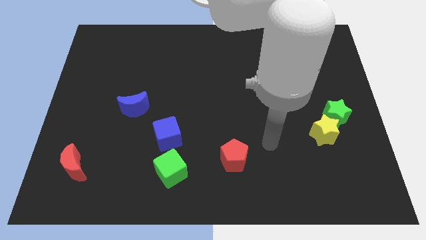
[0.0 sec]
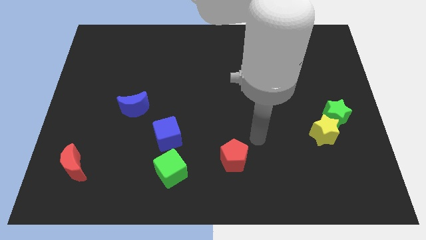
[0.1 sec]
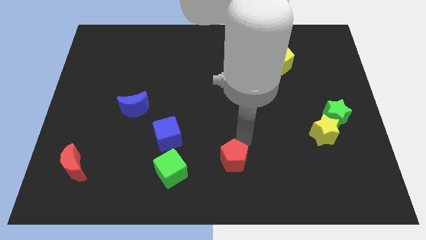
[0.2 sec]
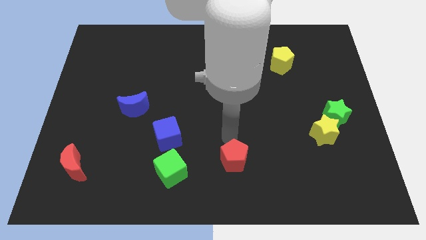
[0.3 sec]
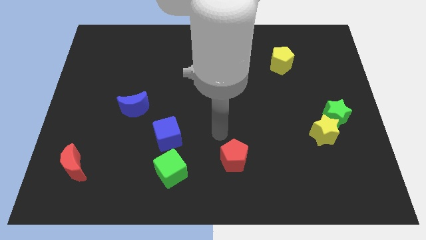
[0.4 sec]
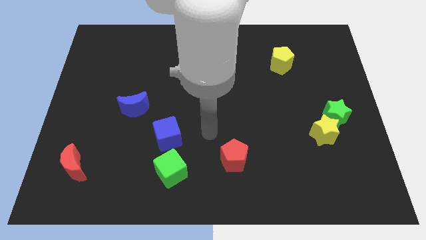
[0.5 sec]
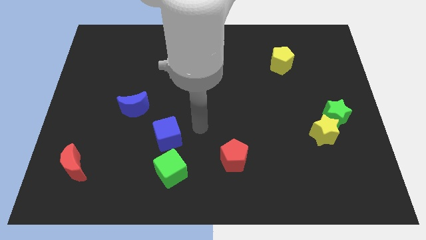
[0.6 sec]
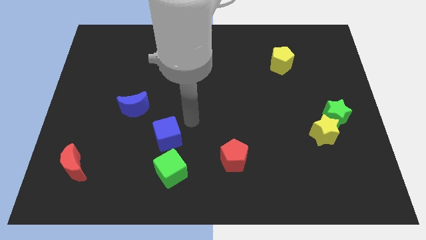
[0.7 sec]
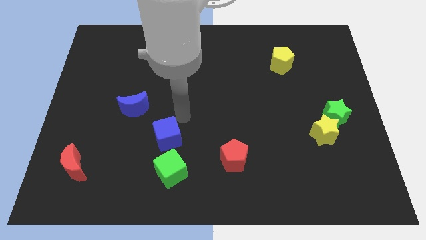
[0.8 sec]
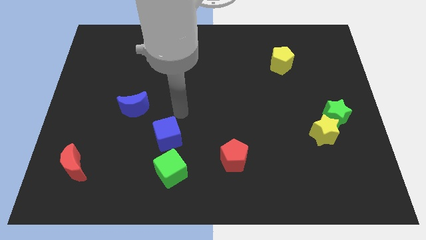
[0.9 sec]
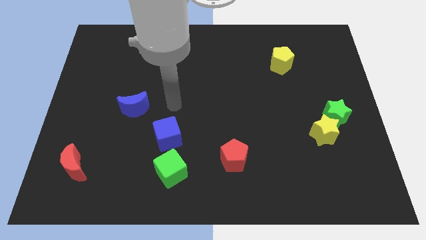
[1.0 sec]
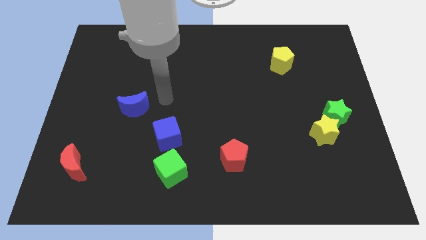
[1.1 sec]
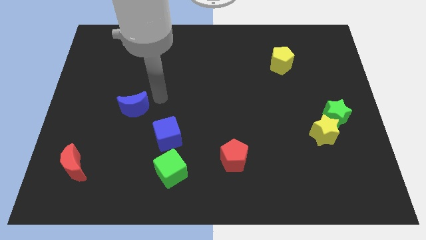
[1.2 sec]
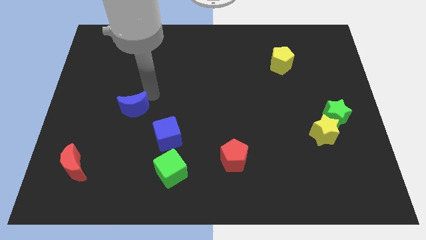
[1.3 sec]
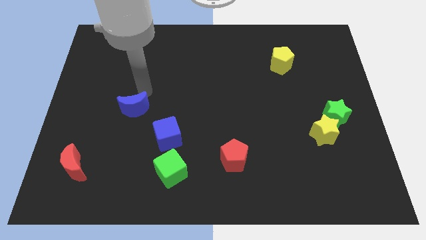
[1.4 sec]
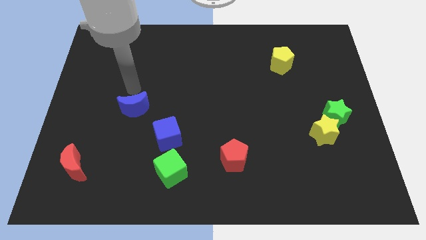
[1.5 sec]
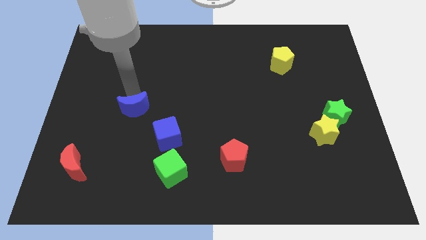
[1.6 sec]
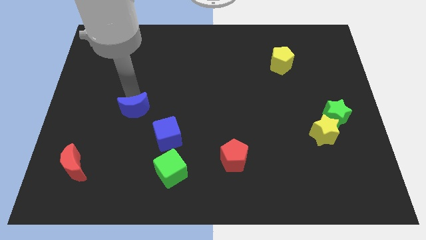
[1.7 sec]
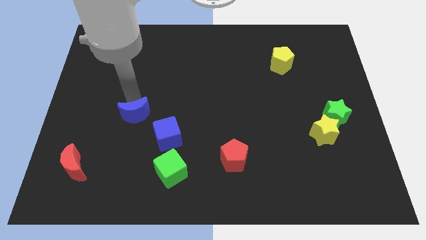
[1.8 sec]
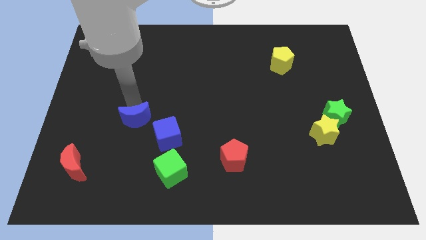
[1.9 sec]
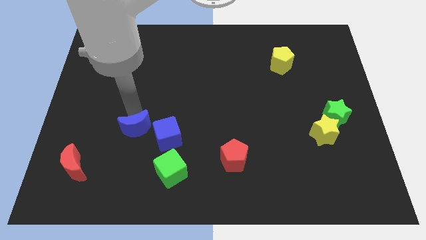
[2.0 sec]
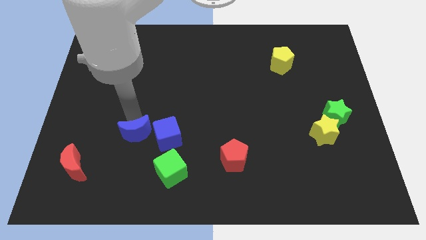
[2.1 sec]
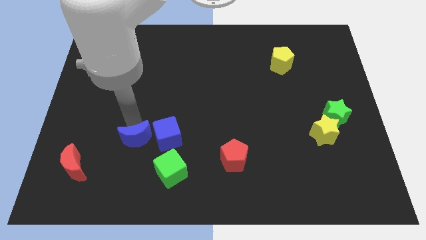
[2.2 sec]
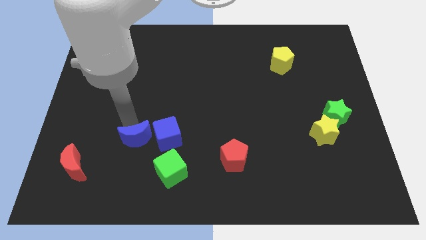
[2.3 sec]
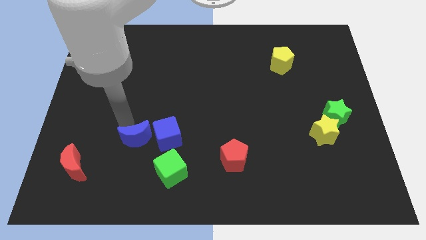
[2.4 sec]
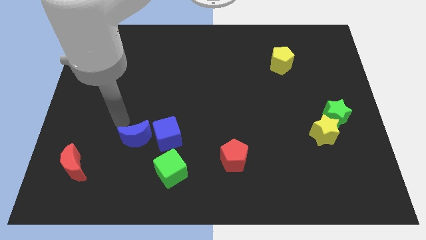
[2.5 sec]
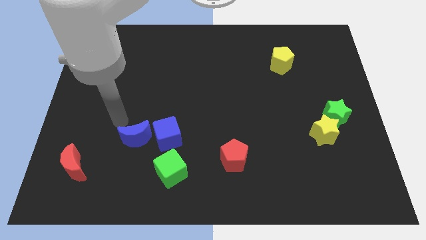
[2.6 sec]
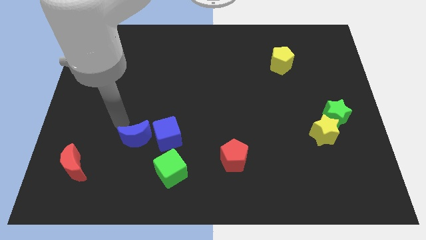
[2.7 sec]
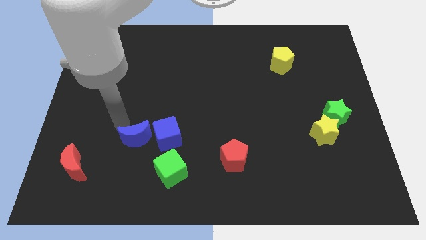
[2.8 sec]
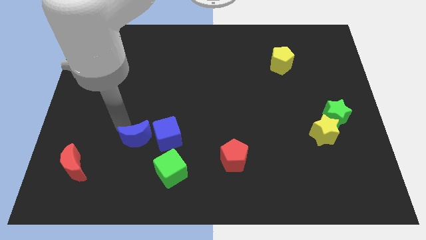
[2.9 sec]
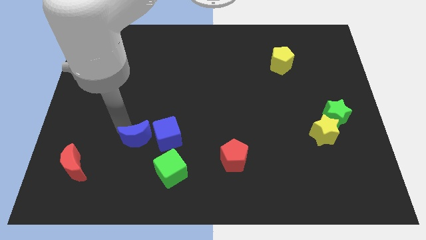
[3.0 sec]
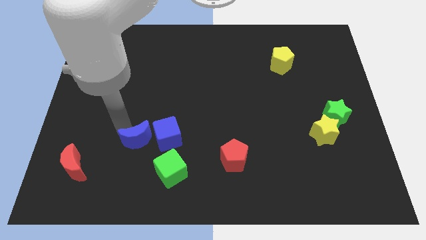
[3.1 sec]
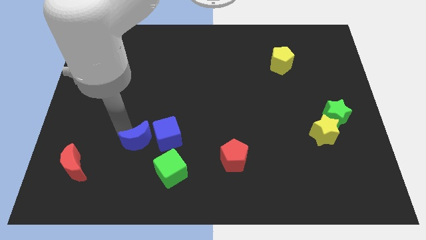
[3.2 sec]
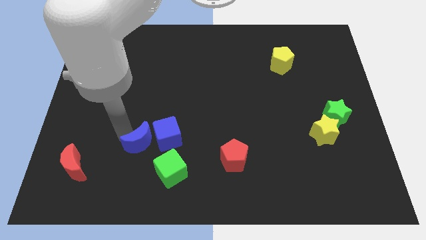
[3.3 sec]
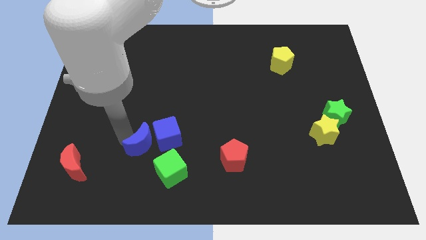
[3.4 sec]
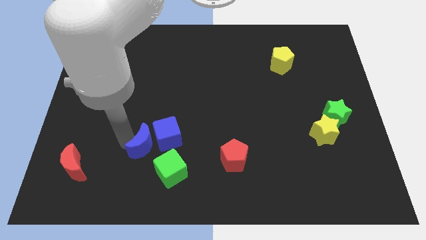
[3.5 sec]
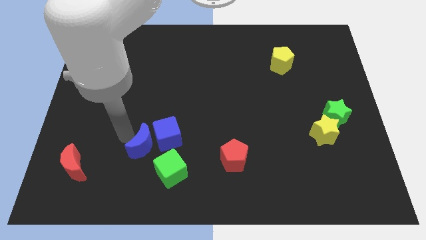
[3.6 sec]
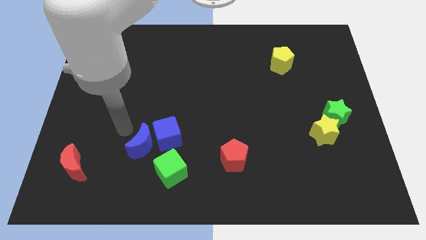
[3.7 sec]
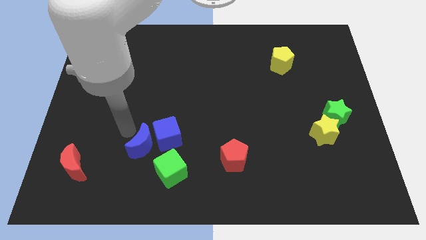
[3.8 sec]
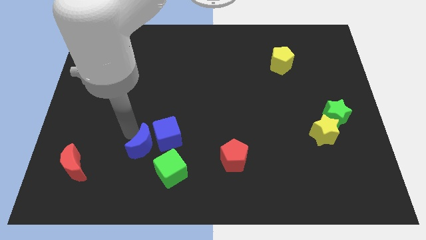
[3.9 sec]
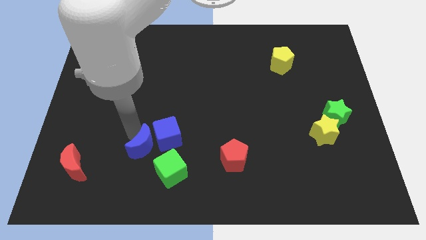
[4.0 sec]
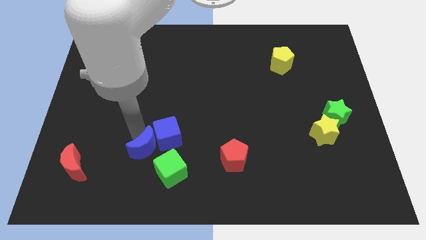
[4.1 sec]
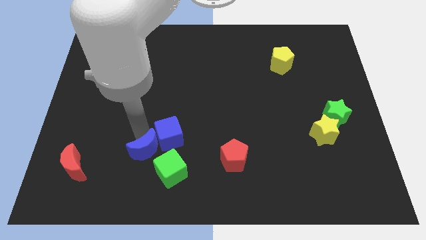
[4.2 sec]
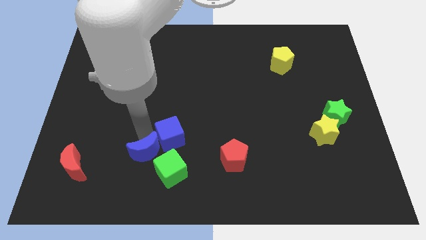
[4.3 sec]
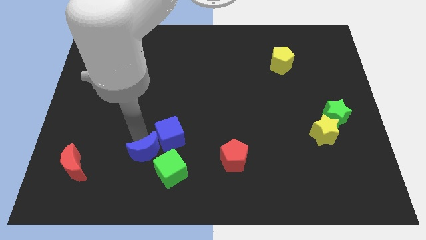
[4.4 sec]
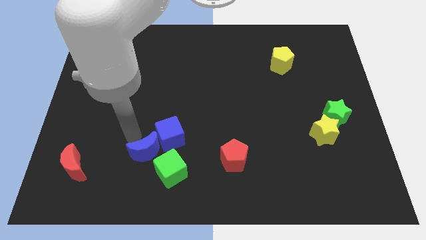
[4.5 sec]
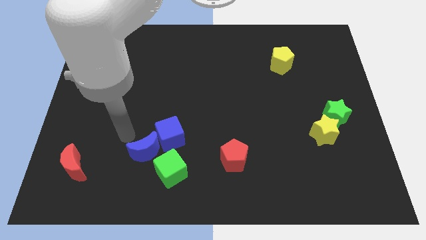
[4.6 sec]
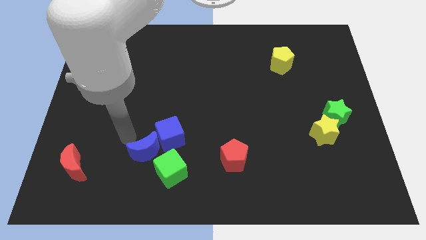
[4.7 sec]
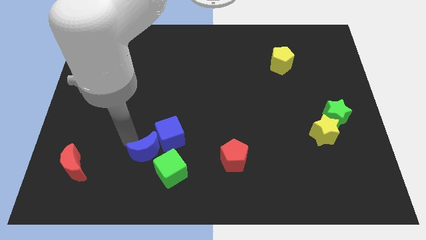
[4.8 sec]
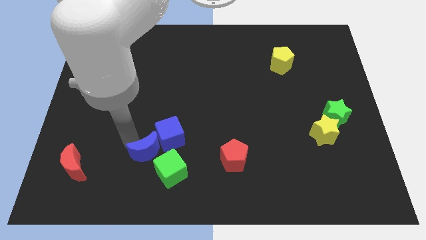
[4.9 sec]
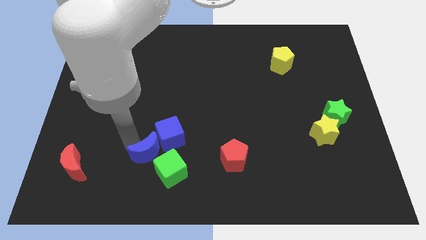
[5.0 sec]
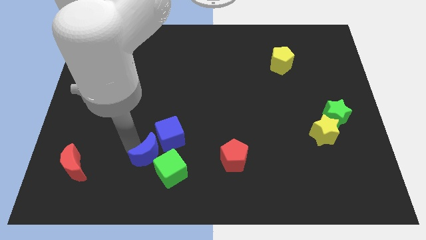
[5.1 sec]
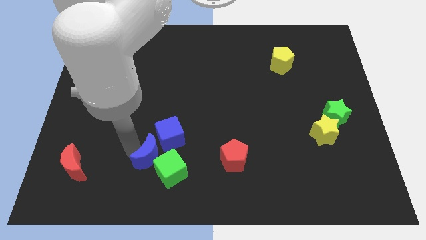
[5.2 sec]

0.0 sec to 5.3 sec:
push the blue moon to the green cube

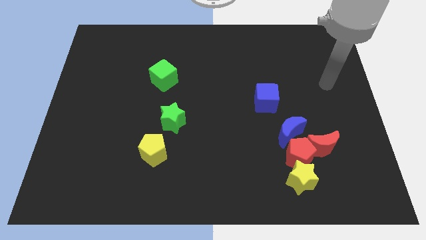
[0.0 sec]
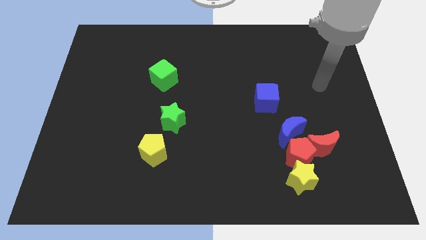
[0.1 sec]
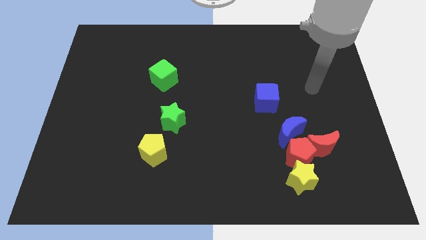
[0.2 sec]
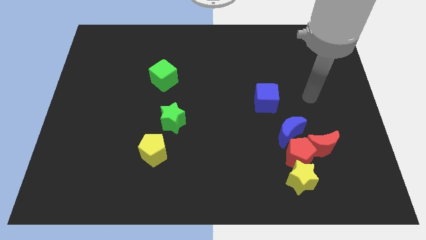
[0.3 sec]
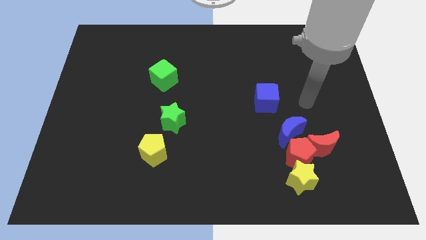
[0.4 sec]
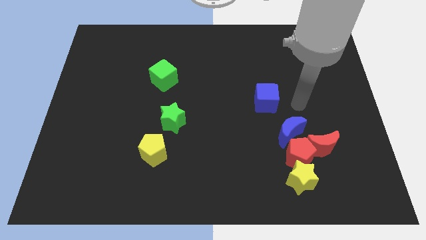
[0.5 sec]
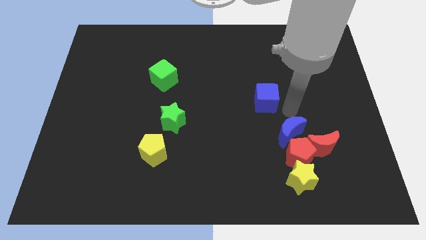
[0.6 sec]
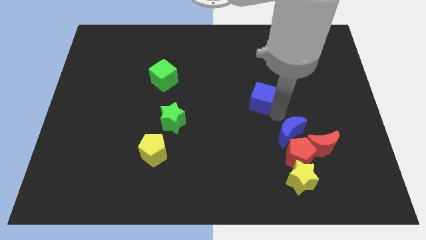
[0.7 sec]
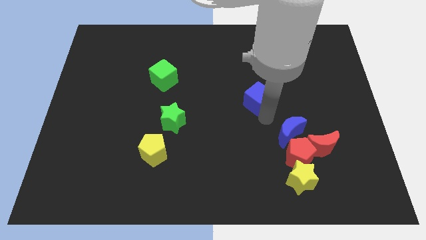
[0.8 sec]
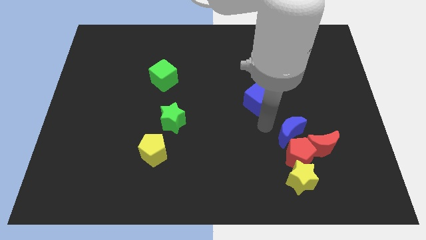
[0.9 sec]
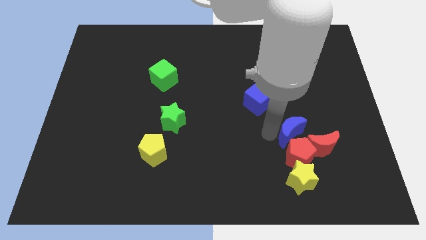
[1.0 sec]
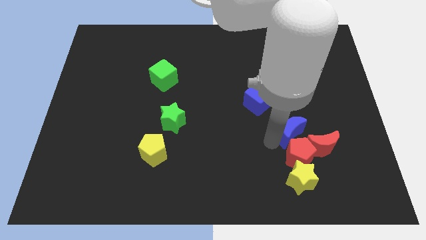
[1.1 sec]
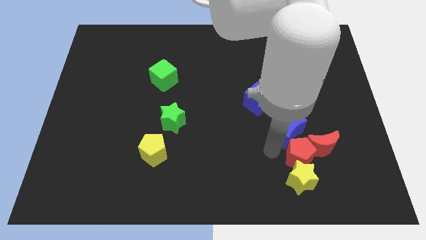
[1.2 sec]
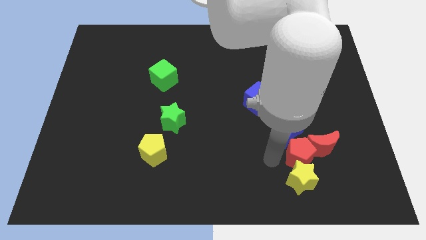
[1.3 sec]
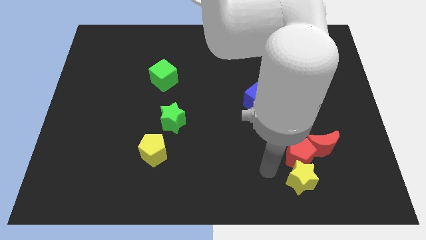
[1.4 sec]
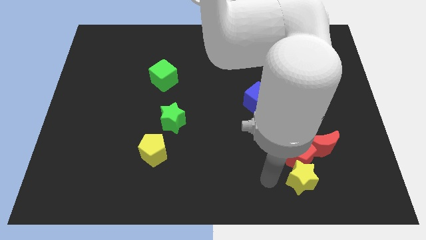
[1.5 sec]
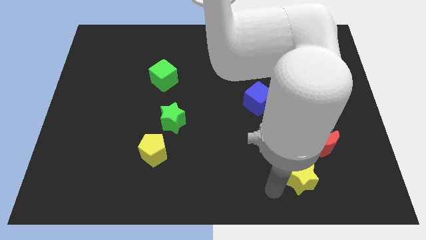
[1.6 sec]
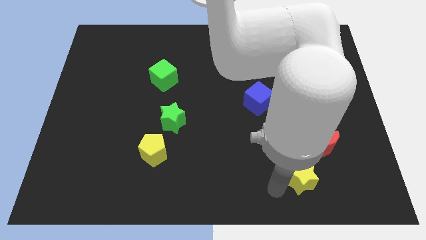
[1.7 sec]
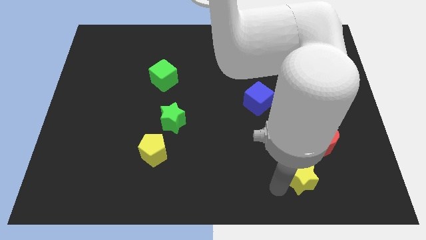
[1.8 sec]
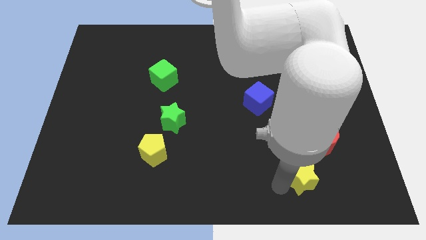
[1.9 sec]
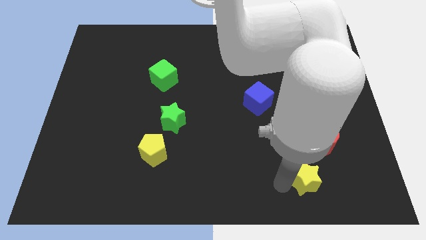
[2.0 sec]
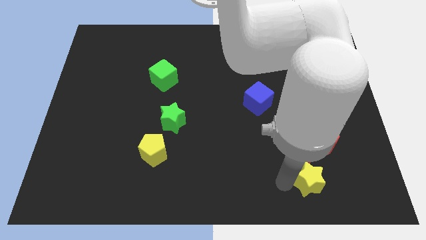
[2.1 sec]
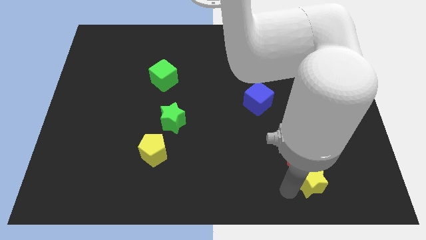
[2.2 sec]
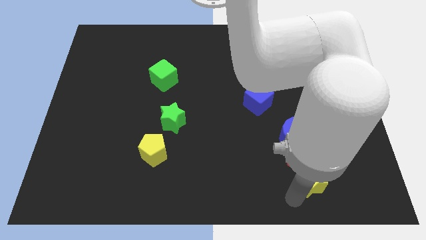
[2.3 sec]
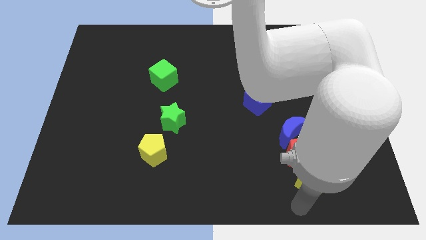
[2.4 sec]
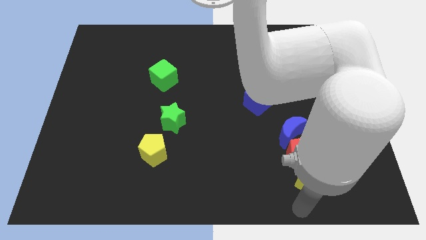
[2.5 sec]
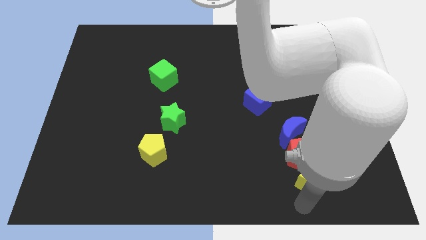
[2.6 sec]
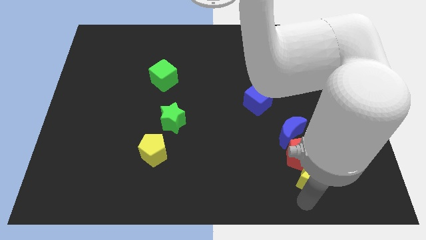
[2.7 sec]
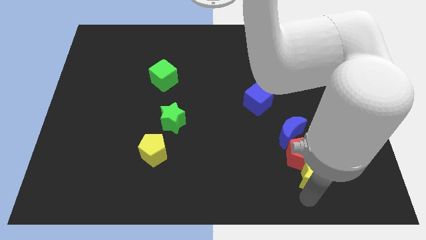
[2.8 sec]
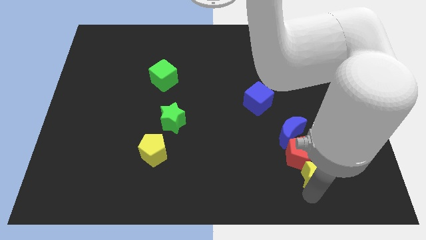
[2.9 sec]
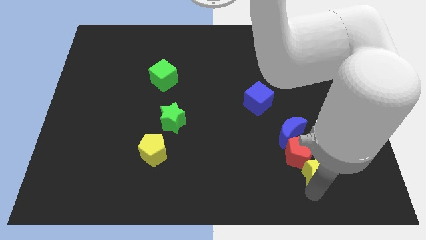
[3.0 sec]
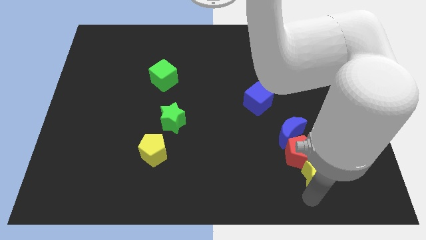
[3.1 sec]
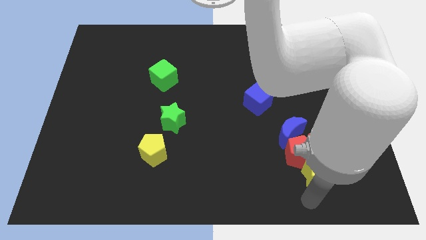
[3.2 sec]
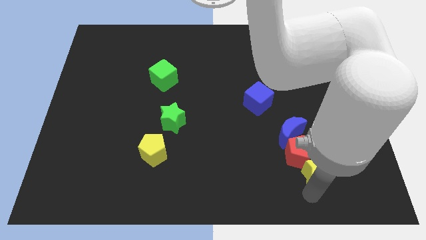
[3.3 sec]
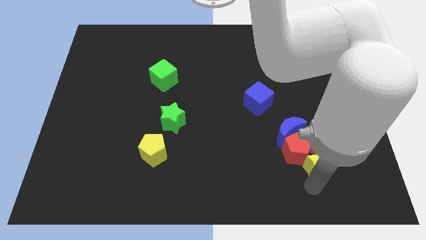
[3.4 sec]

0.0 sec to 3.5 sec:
push the yellow star towards the red moon
